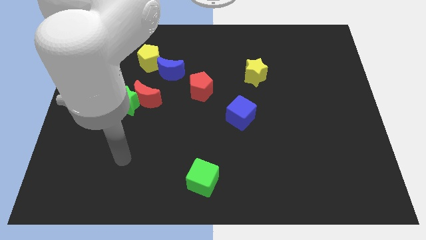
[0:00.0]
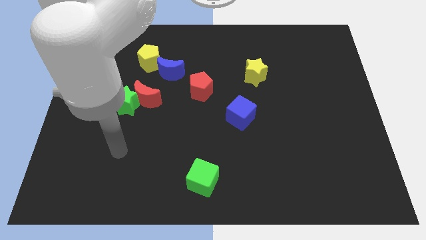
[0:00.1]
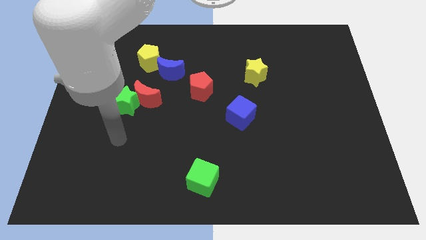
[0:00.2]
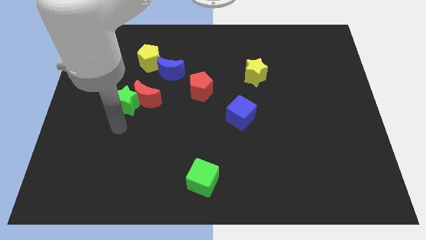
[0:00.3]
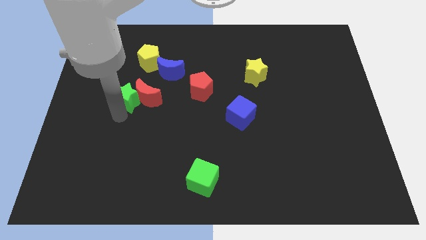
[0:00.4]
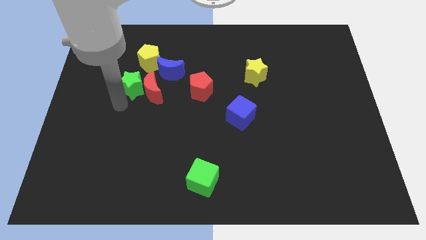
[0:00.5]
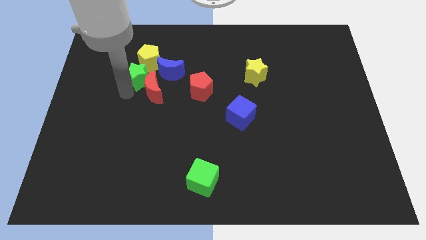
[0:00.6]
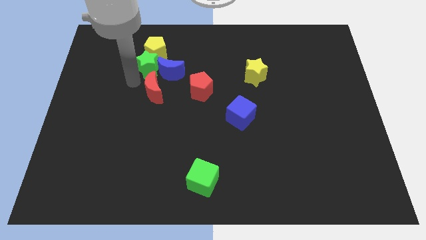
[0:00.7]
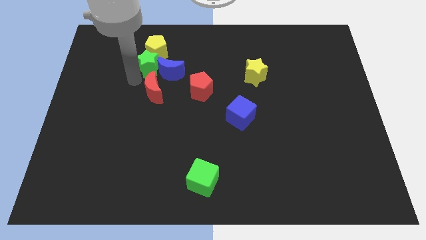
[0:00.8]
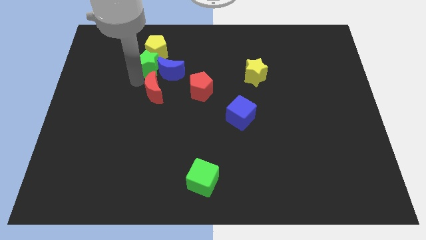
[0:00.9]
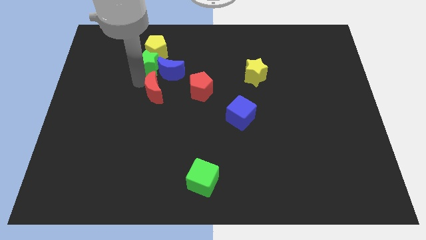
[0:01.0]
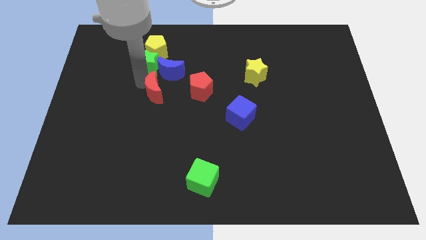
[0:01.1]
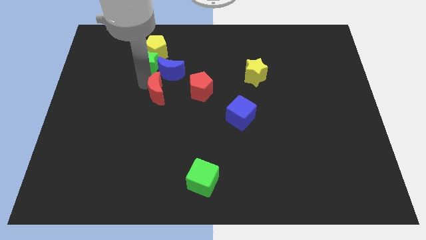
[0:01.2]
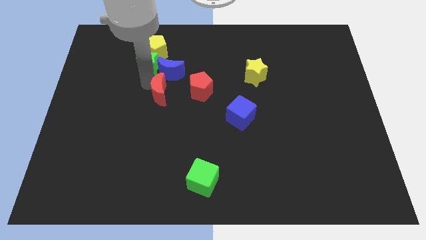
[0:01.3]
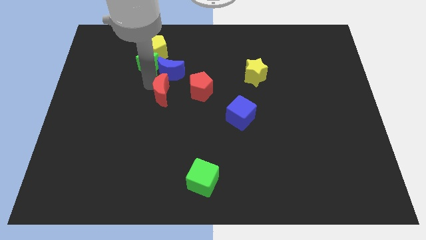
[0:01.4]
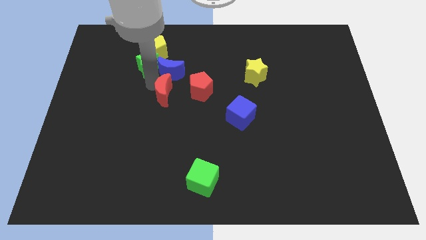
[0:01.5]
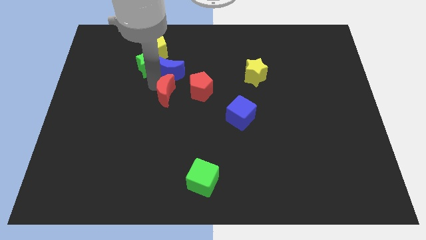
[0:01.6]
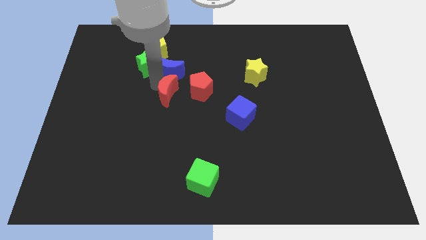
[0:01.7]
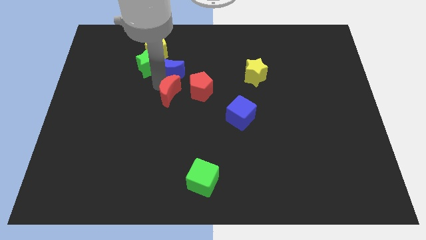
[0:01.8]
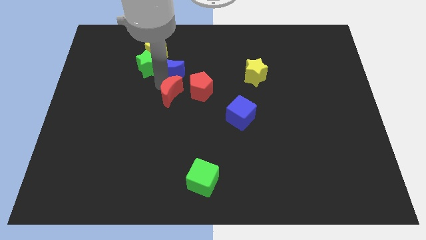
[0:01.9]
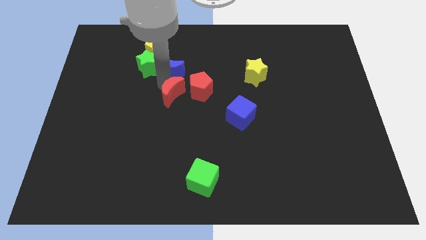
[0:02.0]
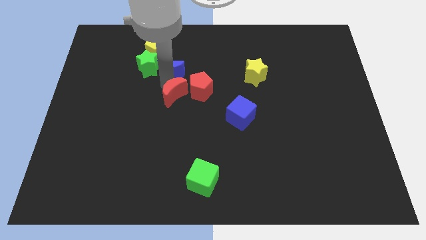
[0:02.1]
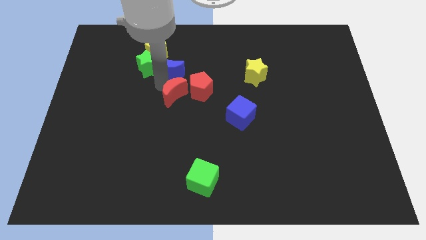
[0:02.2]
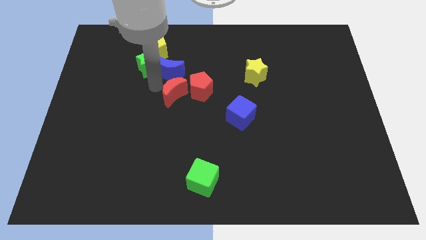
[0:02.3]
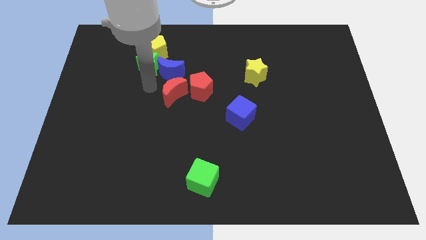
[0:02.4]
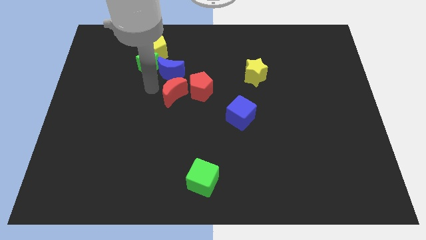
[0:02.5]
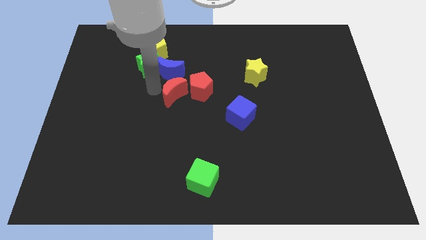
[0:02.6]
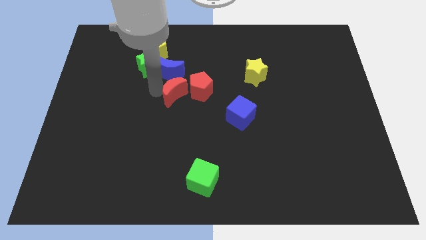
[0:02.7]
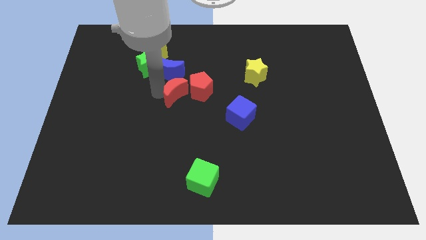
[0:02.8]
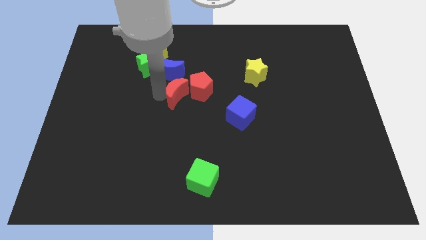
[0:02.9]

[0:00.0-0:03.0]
slightly move the red moon to the right

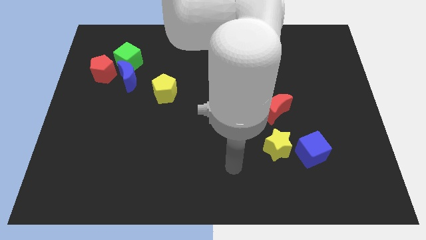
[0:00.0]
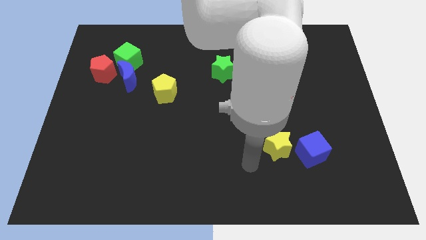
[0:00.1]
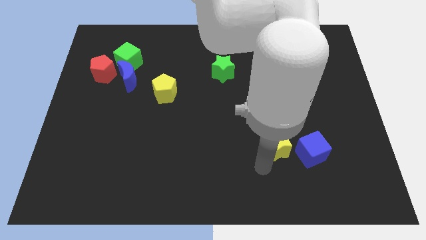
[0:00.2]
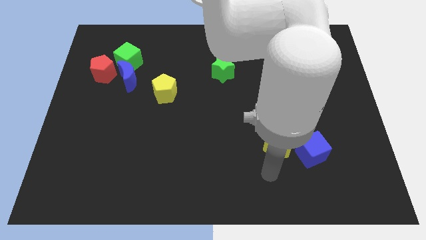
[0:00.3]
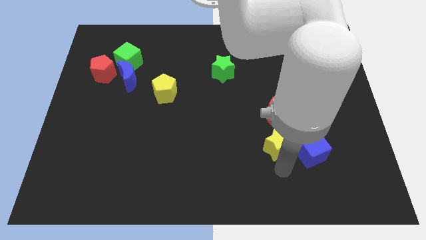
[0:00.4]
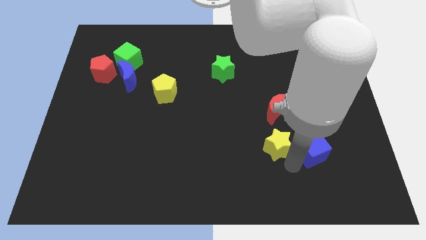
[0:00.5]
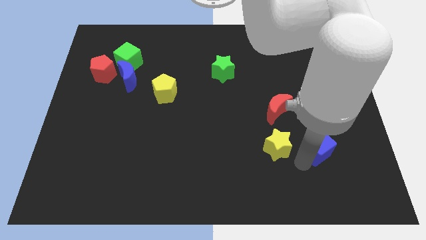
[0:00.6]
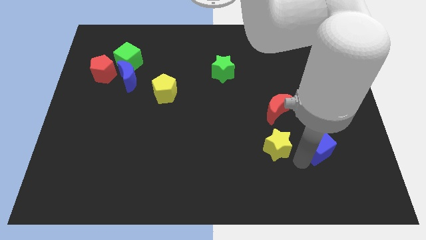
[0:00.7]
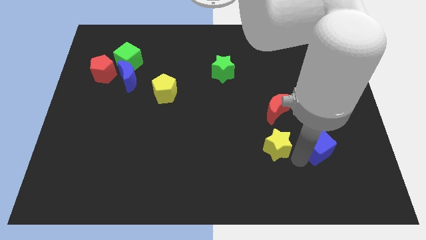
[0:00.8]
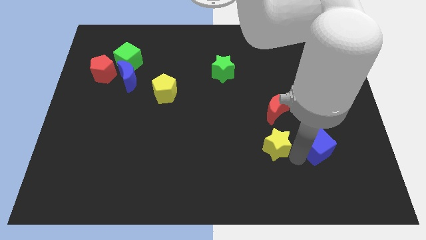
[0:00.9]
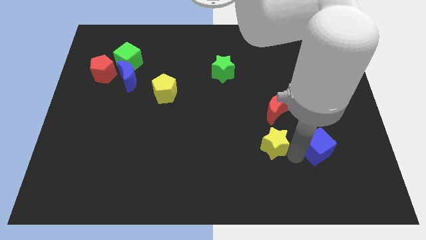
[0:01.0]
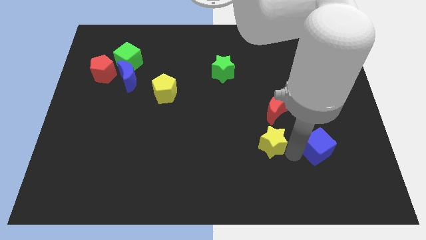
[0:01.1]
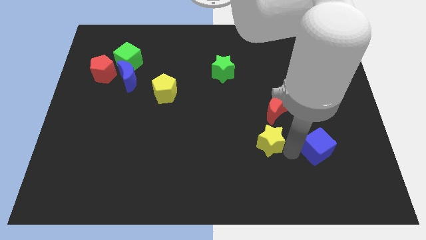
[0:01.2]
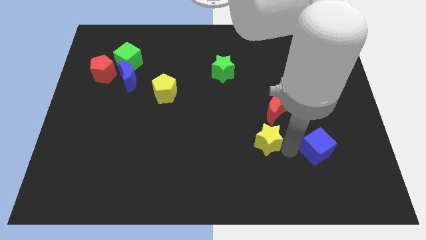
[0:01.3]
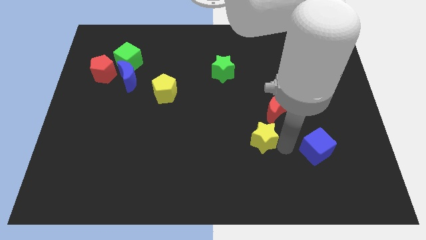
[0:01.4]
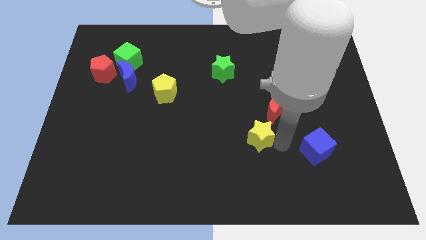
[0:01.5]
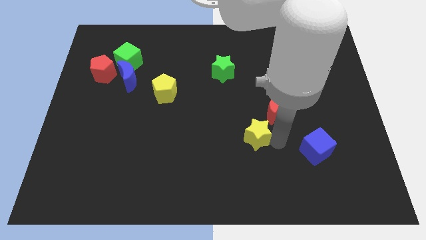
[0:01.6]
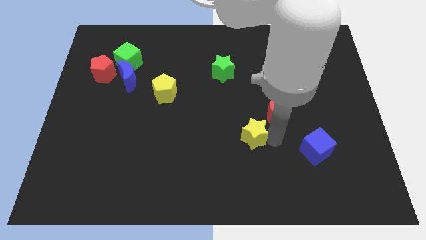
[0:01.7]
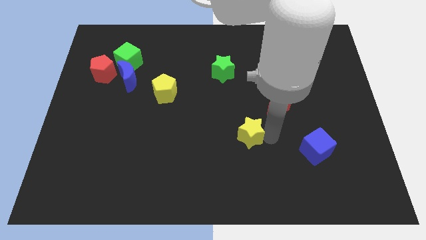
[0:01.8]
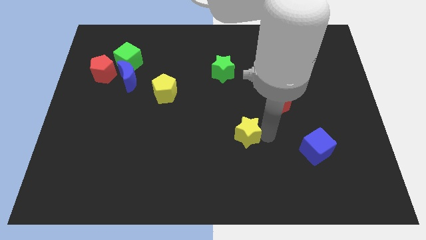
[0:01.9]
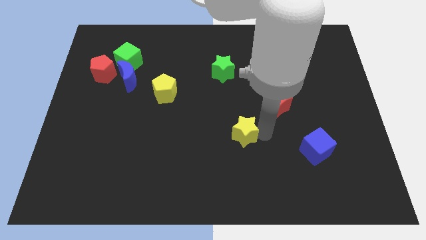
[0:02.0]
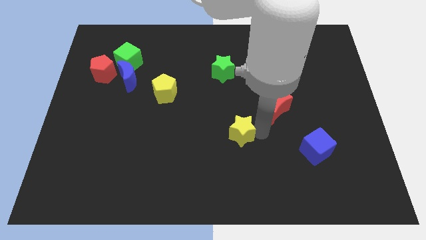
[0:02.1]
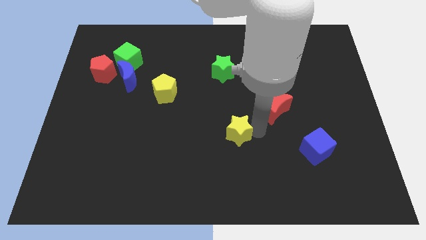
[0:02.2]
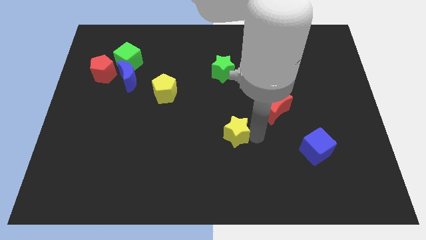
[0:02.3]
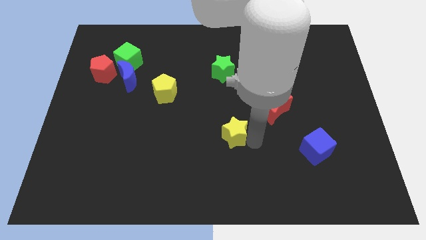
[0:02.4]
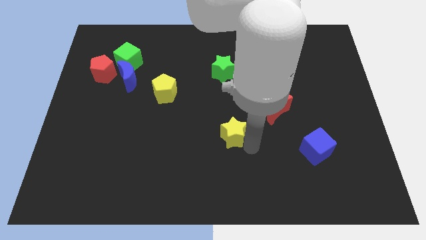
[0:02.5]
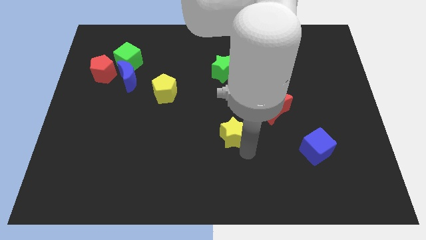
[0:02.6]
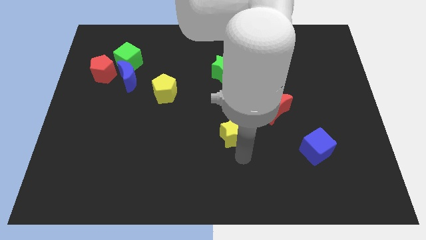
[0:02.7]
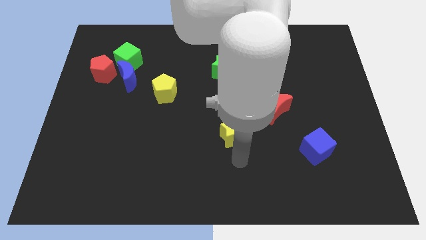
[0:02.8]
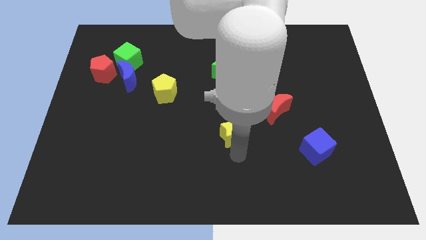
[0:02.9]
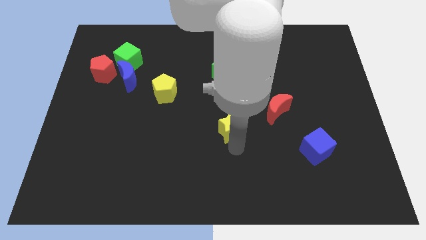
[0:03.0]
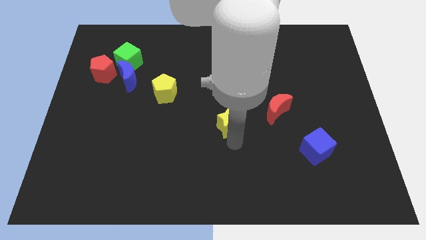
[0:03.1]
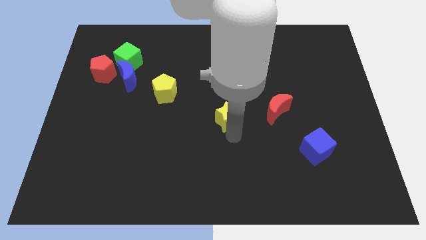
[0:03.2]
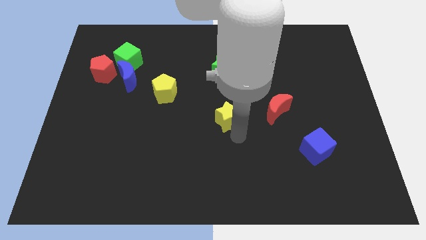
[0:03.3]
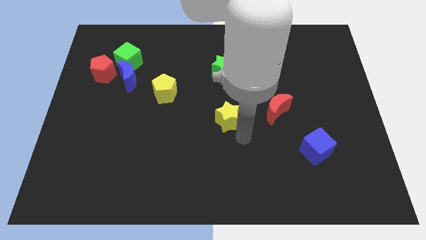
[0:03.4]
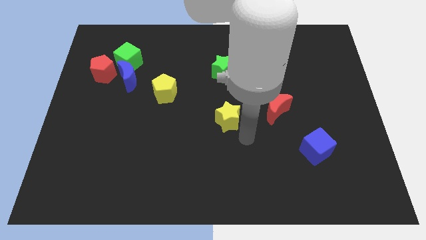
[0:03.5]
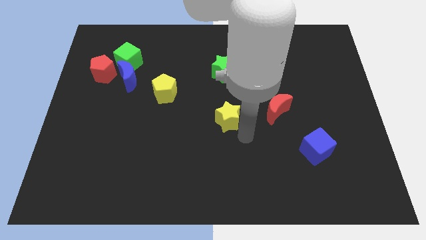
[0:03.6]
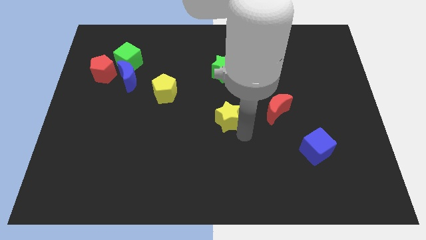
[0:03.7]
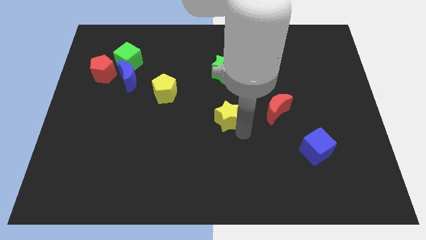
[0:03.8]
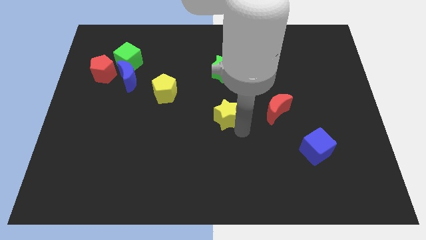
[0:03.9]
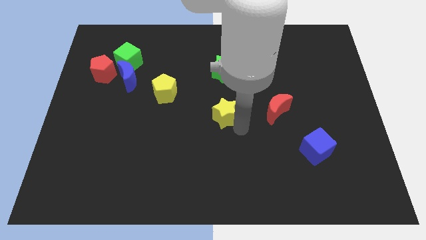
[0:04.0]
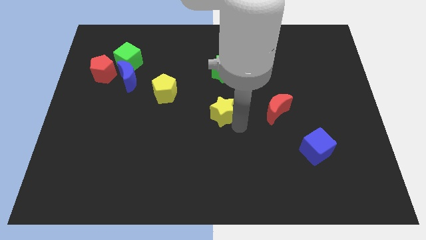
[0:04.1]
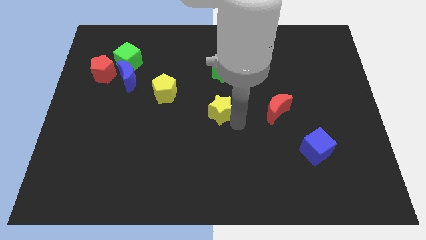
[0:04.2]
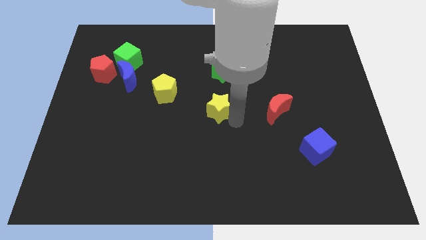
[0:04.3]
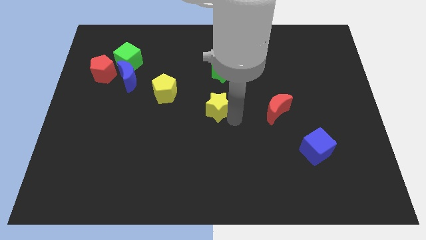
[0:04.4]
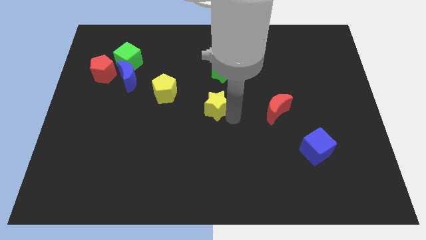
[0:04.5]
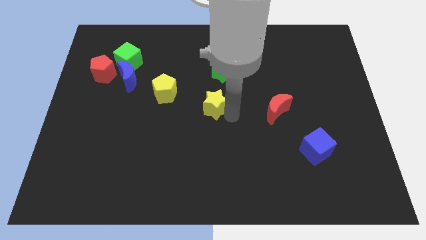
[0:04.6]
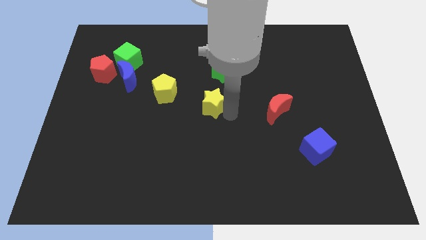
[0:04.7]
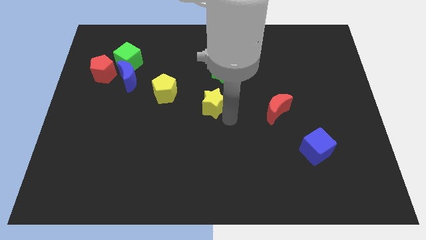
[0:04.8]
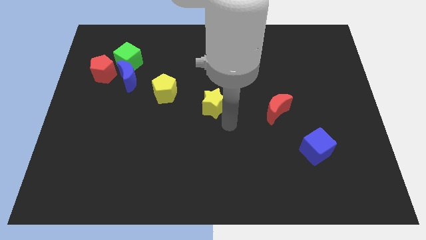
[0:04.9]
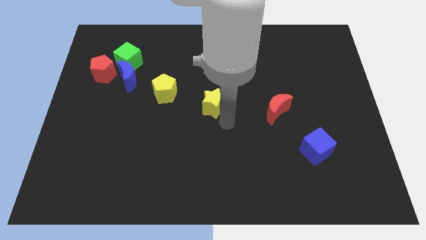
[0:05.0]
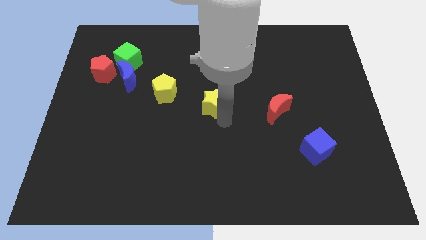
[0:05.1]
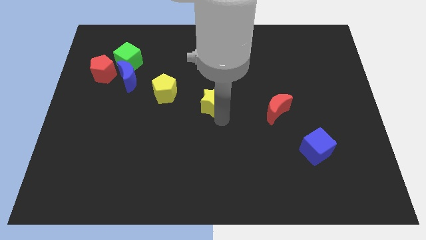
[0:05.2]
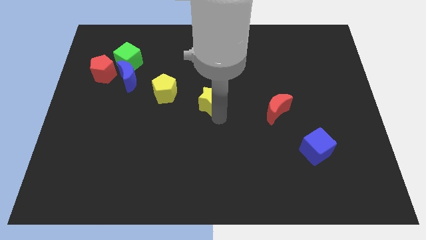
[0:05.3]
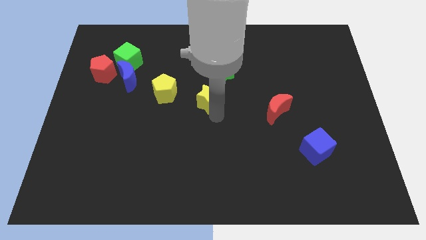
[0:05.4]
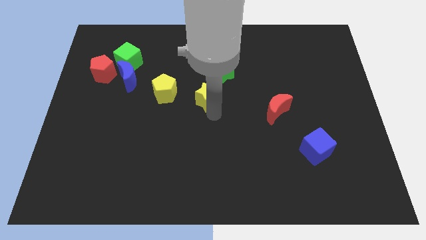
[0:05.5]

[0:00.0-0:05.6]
push the yellow star upwards and to the left
